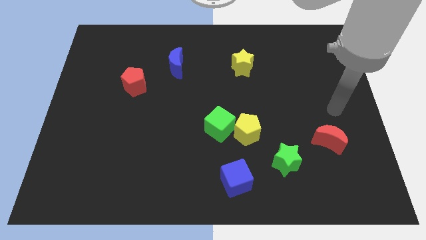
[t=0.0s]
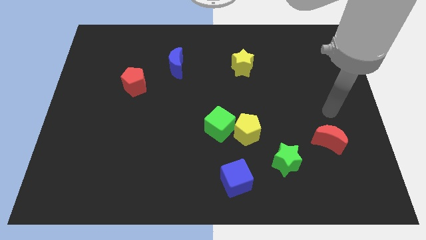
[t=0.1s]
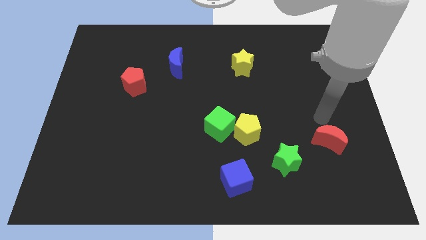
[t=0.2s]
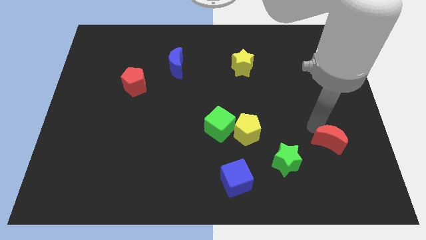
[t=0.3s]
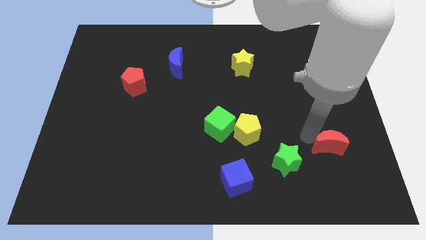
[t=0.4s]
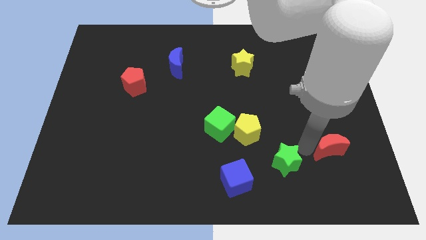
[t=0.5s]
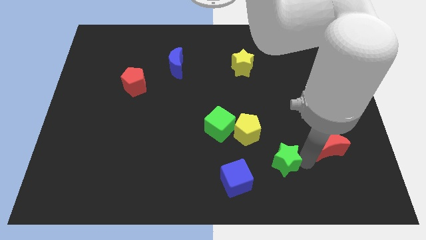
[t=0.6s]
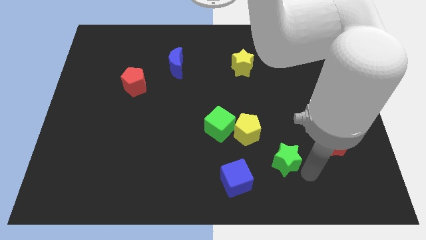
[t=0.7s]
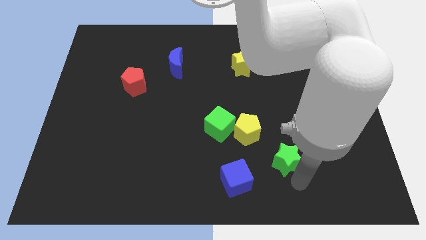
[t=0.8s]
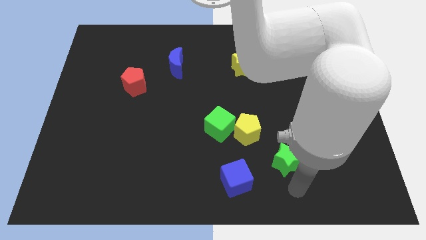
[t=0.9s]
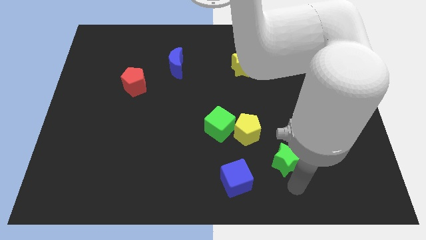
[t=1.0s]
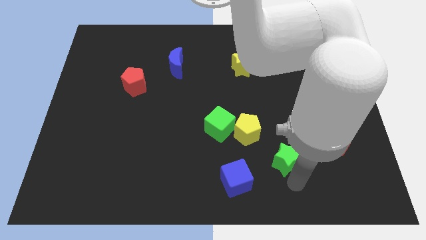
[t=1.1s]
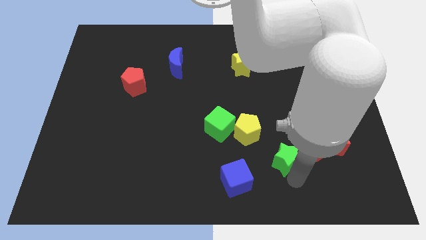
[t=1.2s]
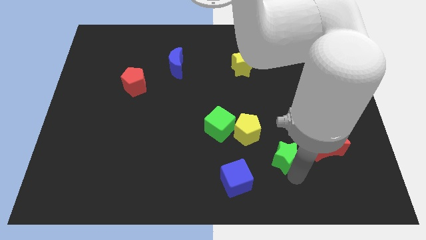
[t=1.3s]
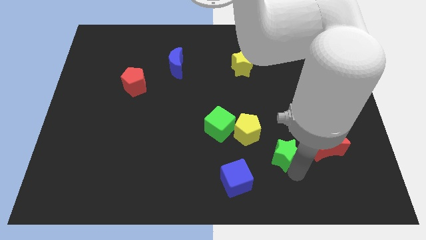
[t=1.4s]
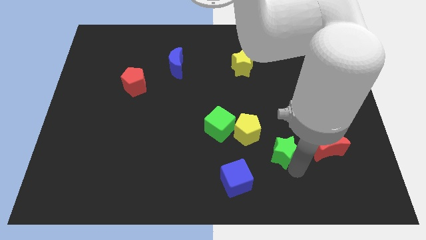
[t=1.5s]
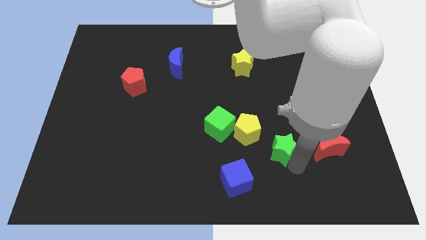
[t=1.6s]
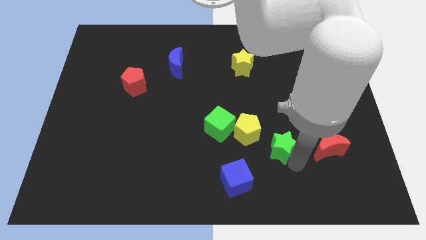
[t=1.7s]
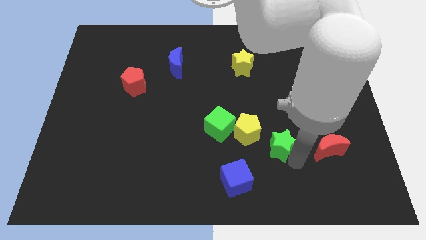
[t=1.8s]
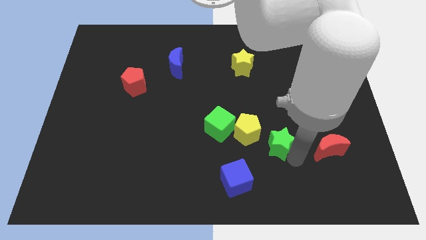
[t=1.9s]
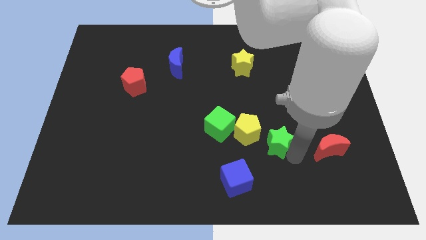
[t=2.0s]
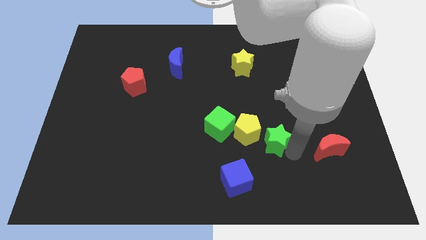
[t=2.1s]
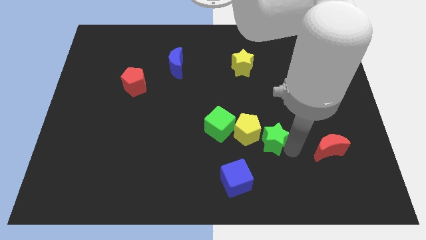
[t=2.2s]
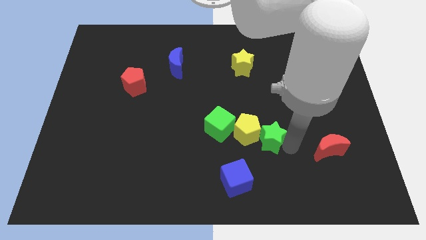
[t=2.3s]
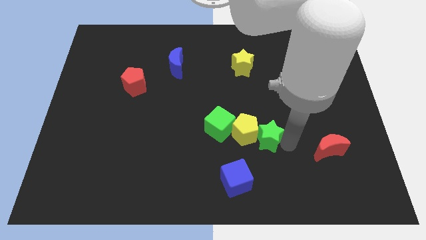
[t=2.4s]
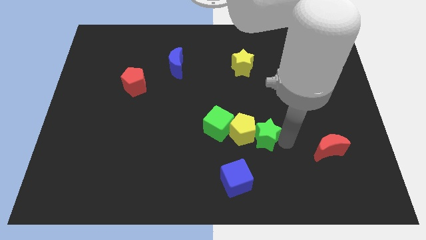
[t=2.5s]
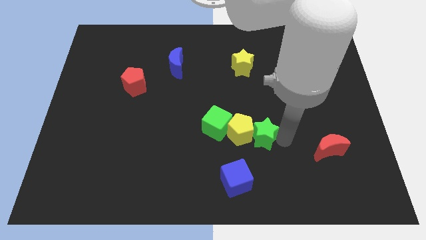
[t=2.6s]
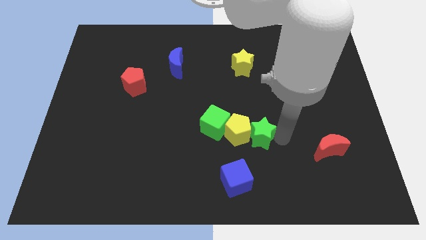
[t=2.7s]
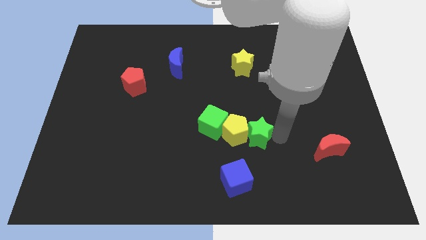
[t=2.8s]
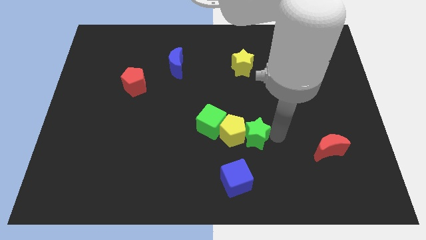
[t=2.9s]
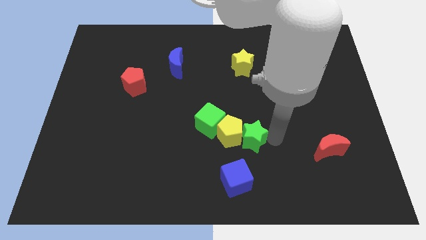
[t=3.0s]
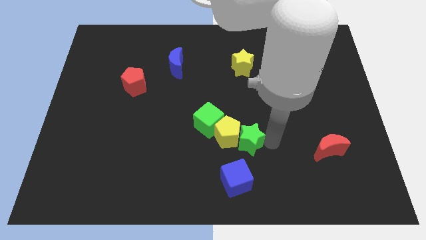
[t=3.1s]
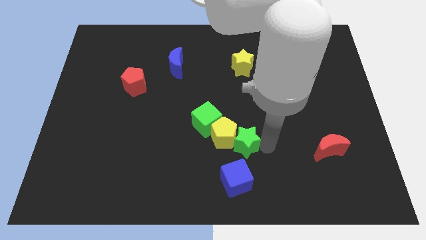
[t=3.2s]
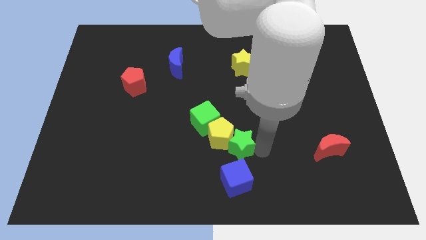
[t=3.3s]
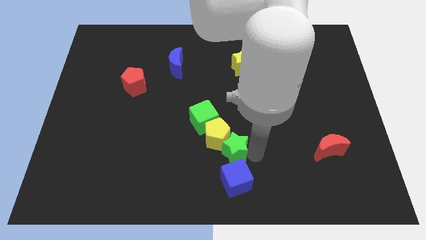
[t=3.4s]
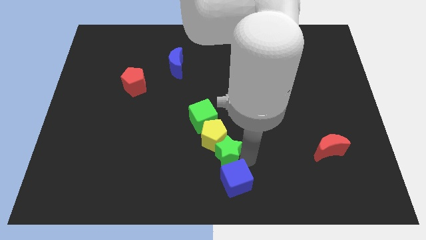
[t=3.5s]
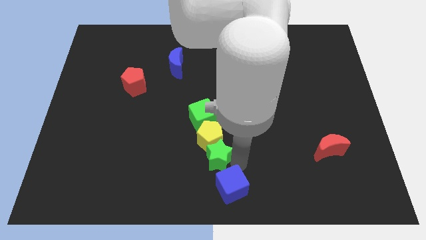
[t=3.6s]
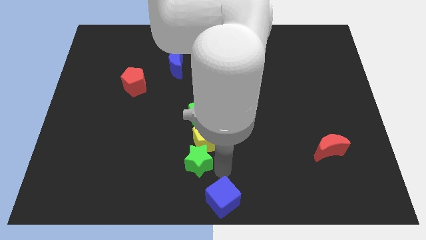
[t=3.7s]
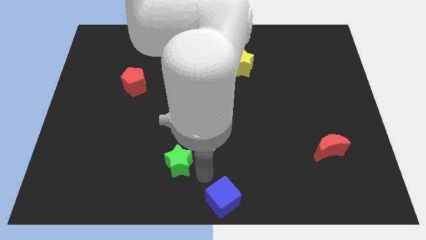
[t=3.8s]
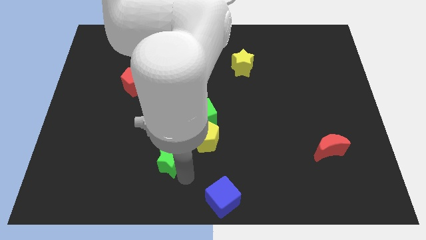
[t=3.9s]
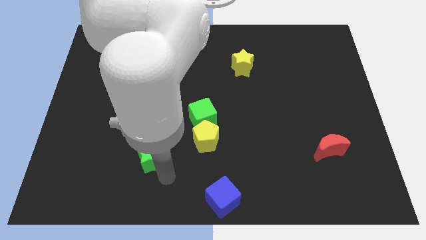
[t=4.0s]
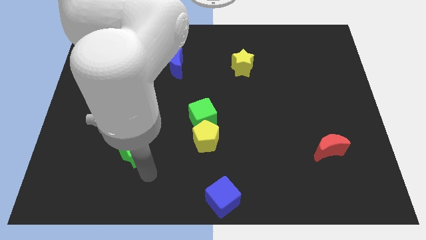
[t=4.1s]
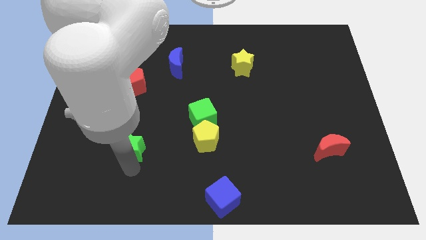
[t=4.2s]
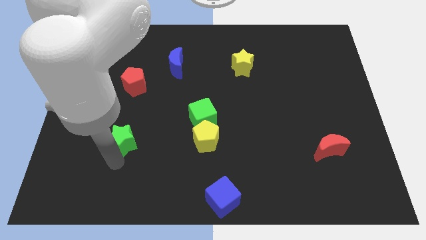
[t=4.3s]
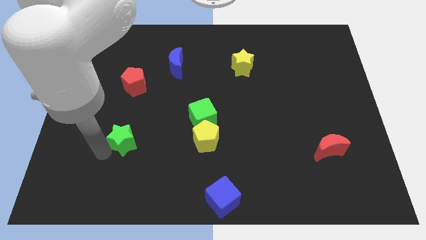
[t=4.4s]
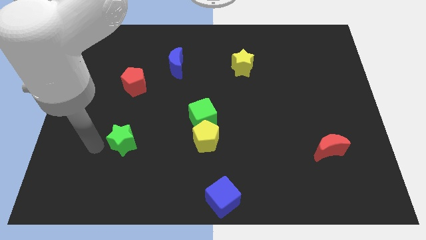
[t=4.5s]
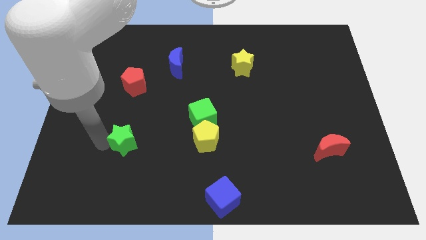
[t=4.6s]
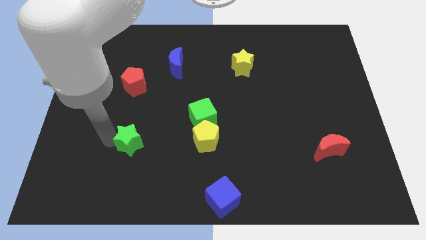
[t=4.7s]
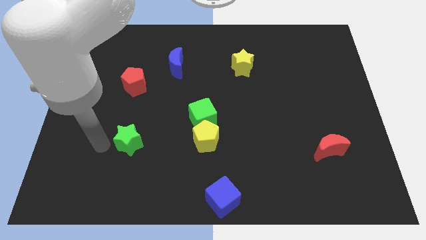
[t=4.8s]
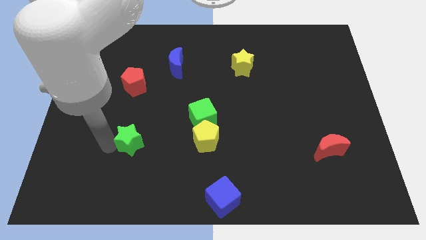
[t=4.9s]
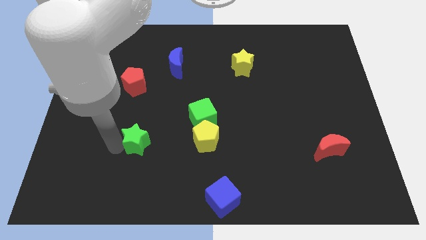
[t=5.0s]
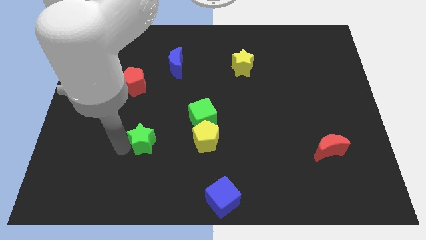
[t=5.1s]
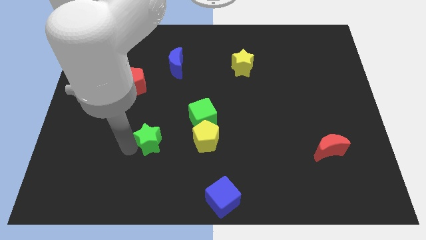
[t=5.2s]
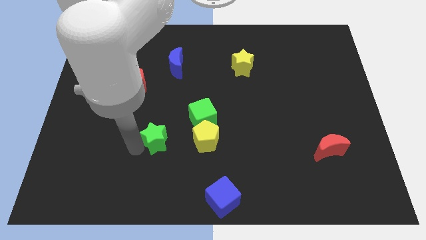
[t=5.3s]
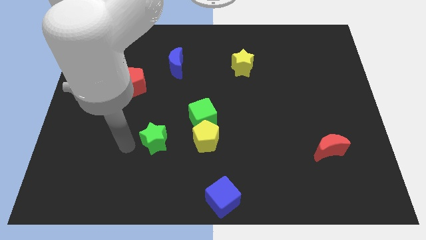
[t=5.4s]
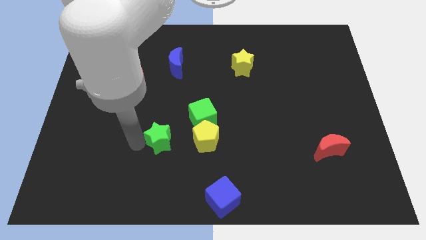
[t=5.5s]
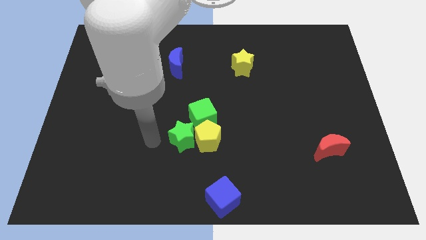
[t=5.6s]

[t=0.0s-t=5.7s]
slide the green star to the center of the board

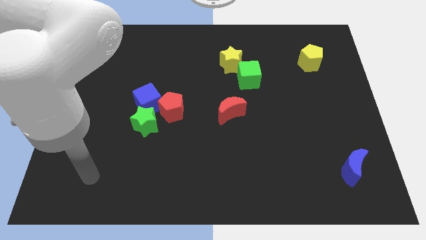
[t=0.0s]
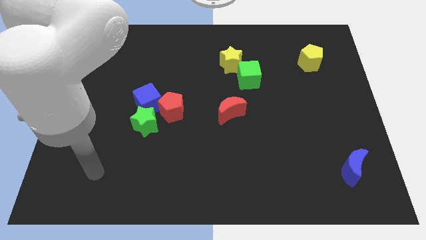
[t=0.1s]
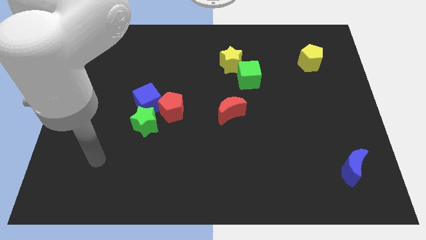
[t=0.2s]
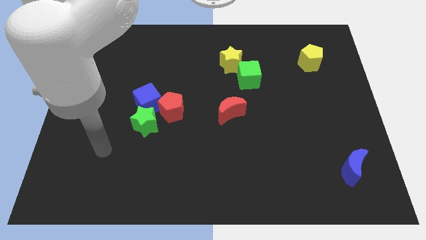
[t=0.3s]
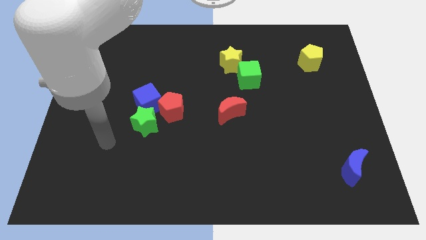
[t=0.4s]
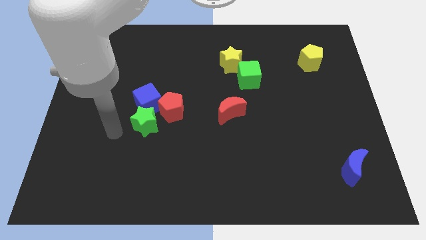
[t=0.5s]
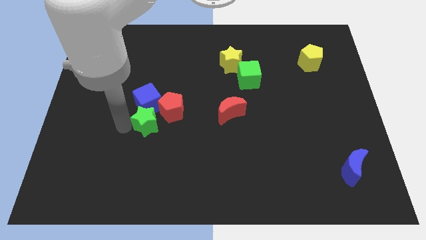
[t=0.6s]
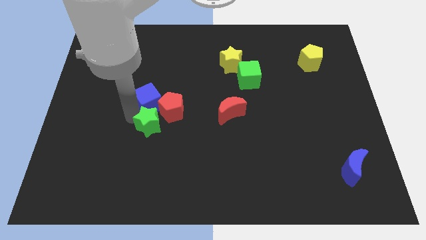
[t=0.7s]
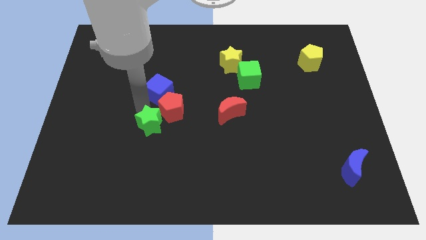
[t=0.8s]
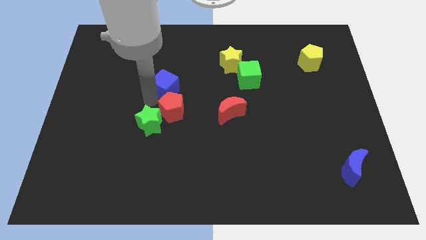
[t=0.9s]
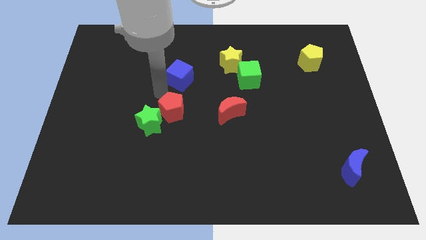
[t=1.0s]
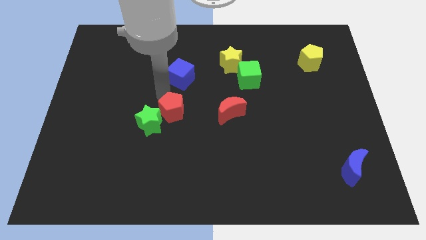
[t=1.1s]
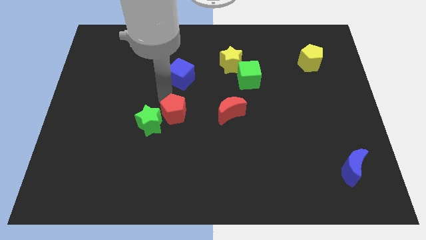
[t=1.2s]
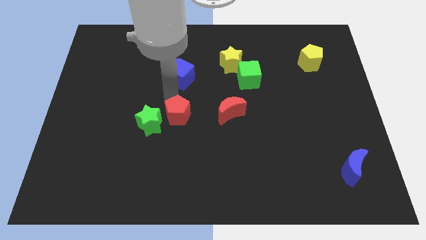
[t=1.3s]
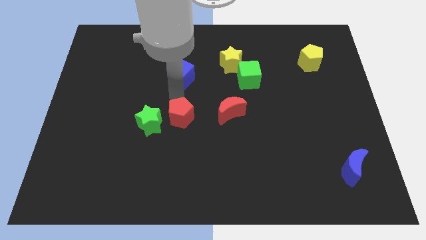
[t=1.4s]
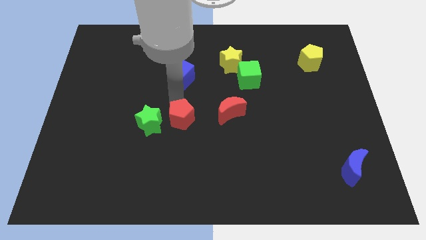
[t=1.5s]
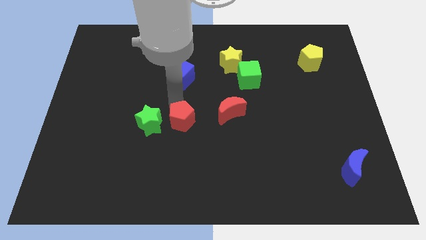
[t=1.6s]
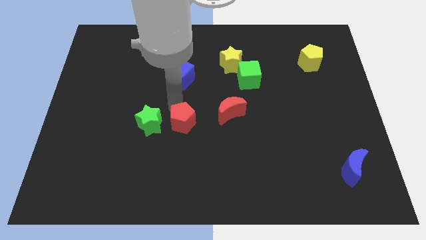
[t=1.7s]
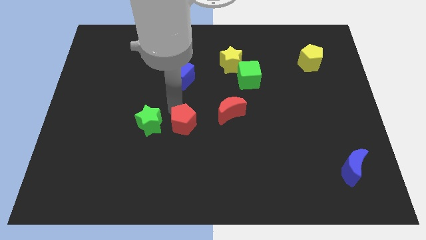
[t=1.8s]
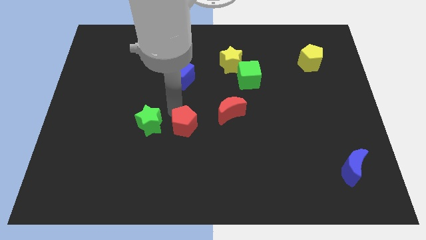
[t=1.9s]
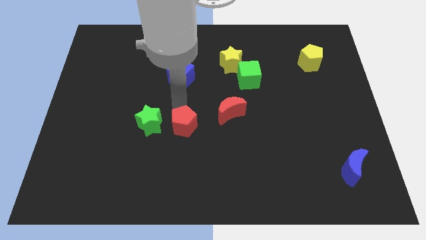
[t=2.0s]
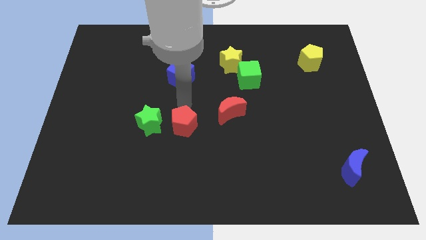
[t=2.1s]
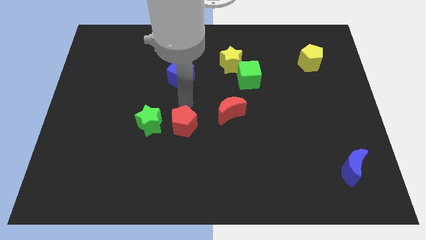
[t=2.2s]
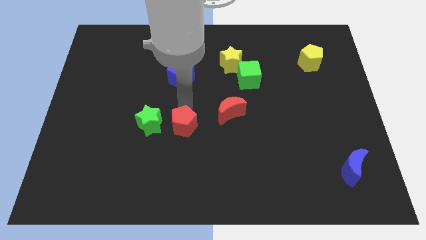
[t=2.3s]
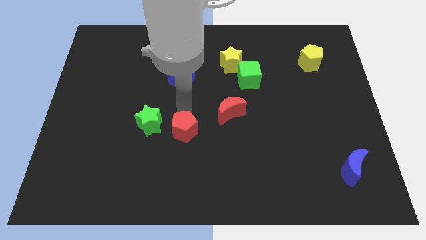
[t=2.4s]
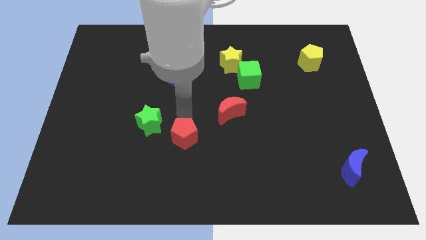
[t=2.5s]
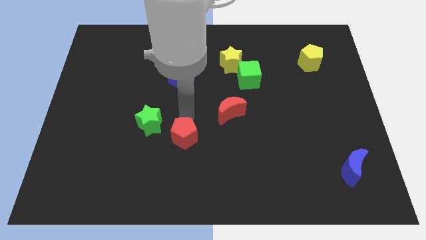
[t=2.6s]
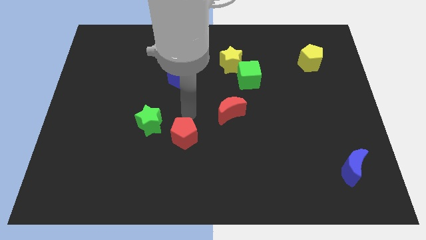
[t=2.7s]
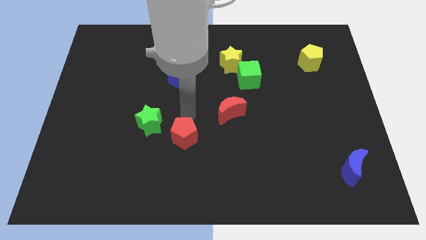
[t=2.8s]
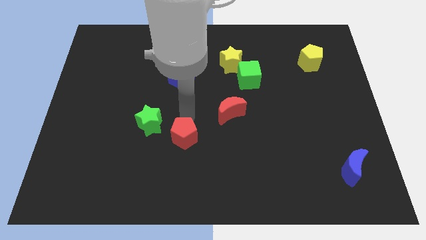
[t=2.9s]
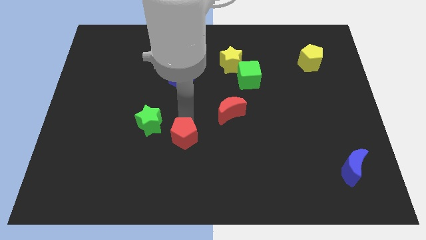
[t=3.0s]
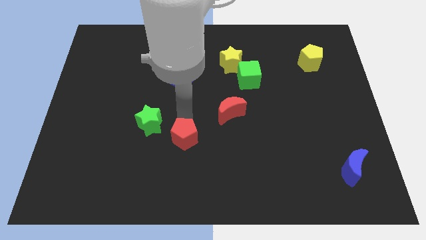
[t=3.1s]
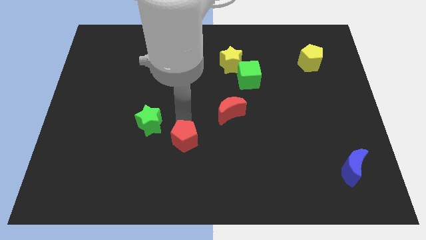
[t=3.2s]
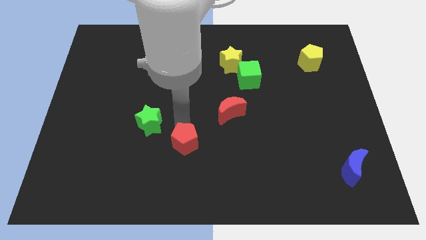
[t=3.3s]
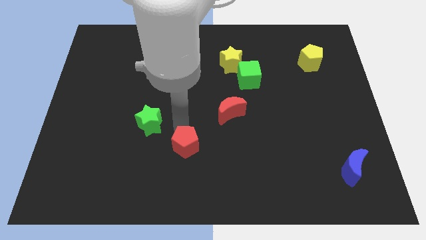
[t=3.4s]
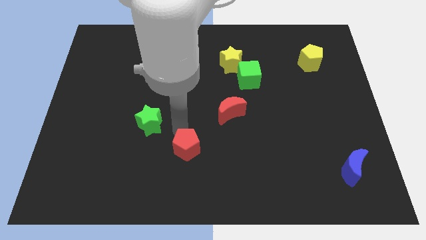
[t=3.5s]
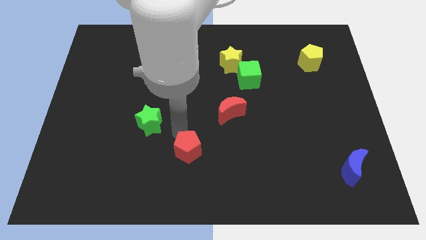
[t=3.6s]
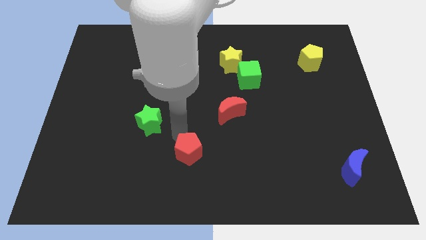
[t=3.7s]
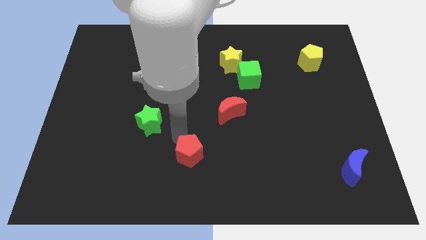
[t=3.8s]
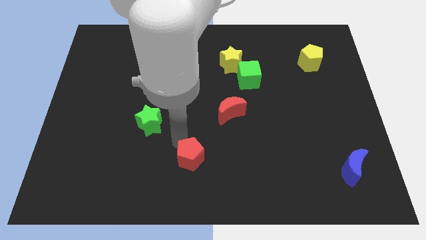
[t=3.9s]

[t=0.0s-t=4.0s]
put the red pentagon to the bottom side
